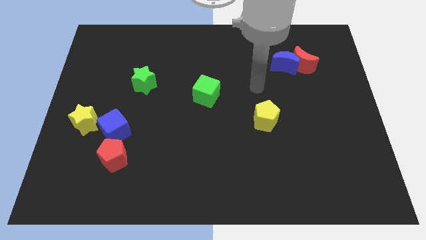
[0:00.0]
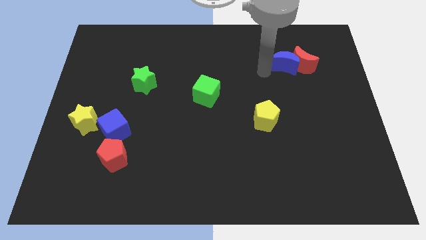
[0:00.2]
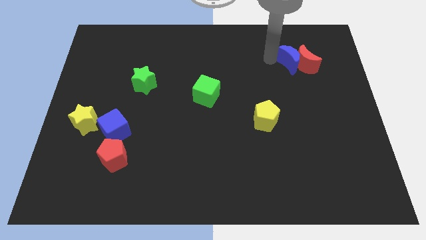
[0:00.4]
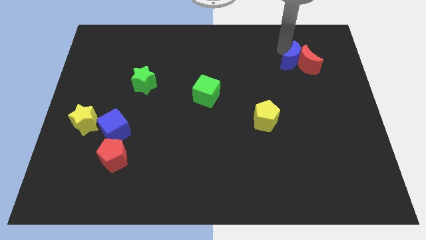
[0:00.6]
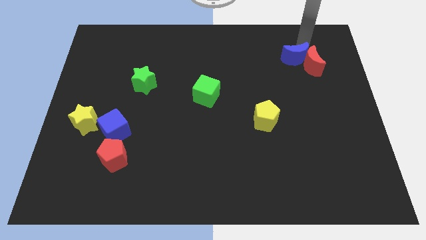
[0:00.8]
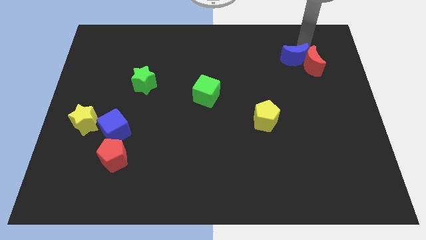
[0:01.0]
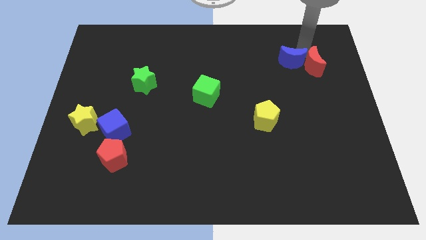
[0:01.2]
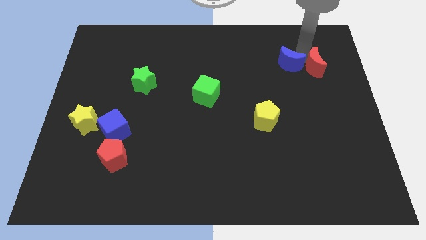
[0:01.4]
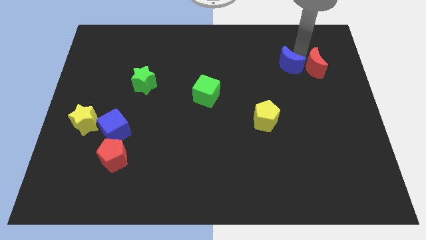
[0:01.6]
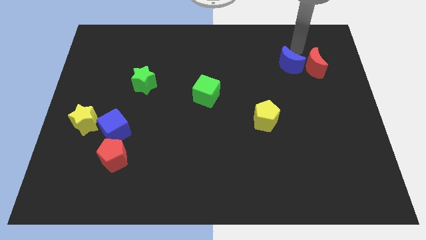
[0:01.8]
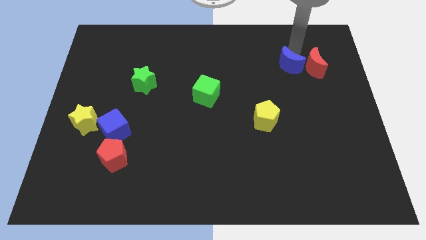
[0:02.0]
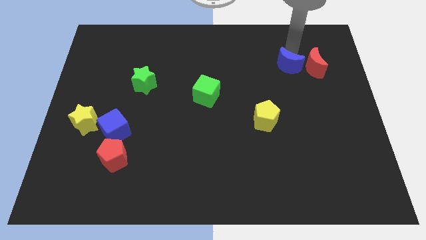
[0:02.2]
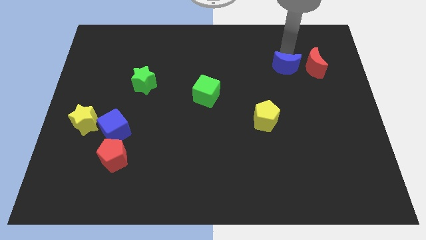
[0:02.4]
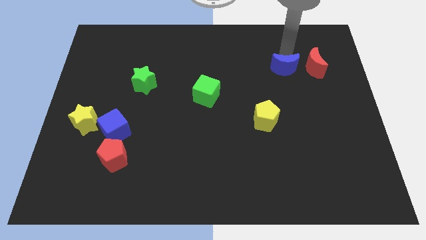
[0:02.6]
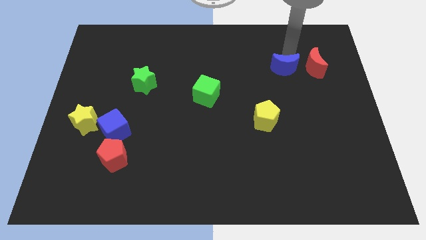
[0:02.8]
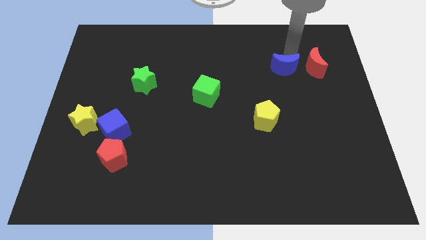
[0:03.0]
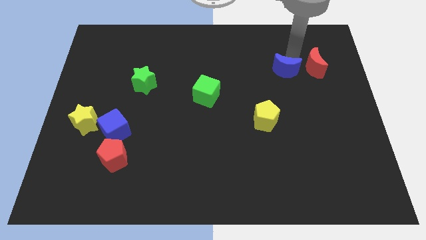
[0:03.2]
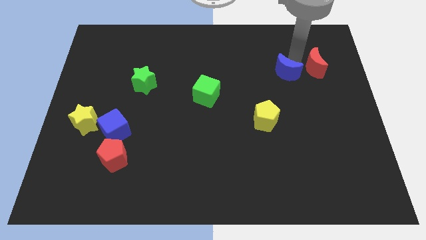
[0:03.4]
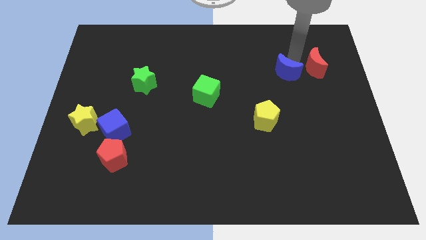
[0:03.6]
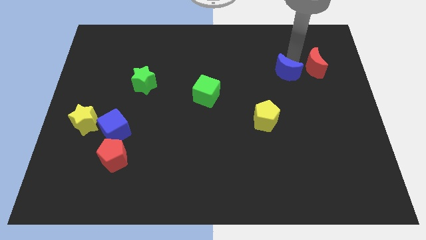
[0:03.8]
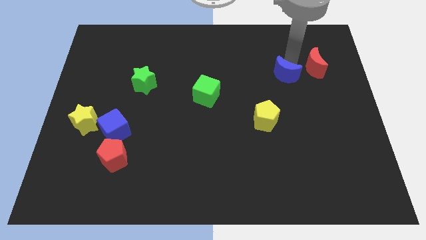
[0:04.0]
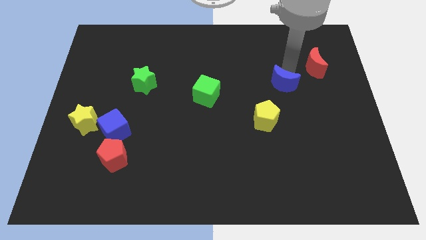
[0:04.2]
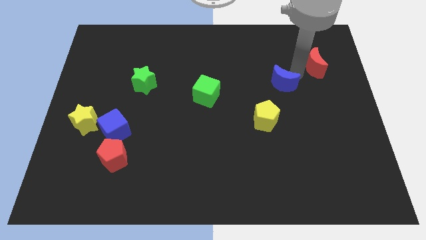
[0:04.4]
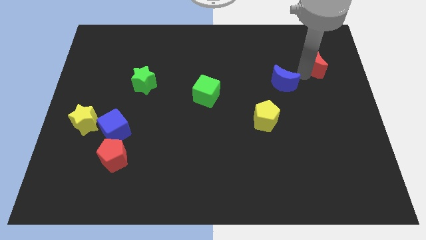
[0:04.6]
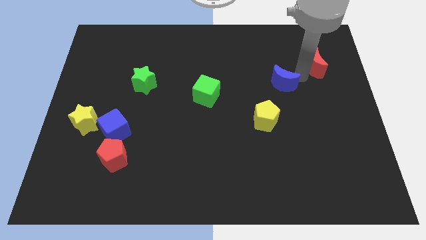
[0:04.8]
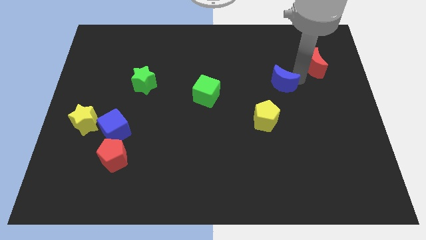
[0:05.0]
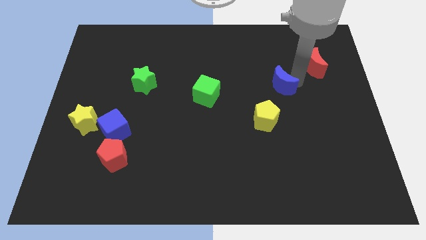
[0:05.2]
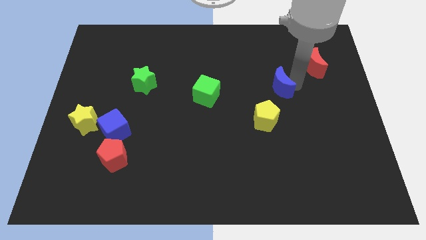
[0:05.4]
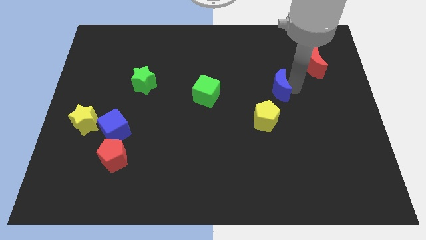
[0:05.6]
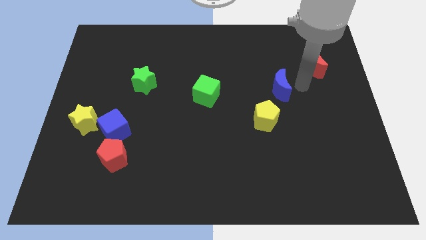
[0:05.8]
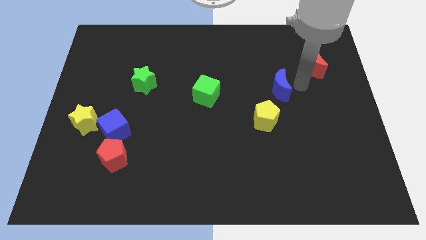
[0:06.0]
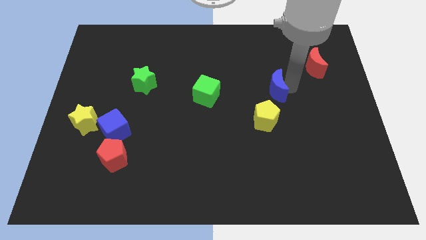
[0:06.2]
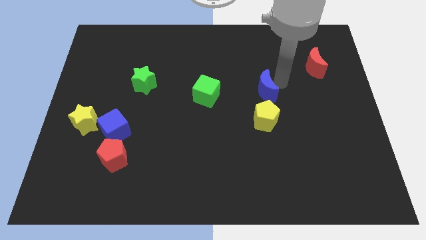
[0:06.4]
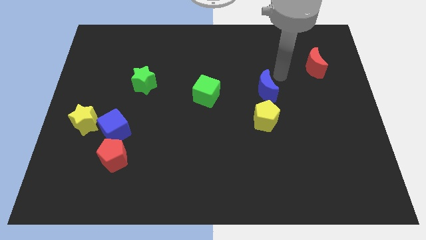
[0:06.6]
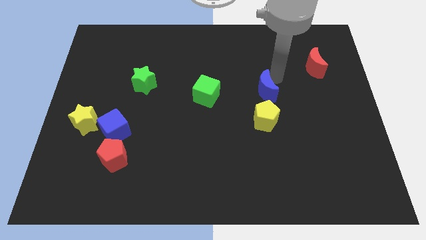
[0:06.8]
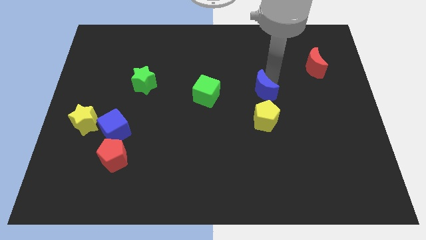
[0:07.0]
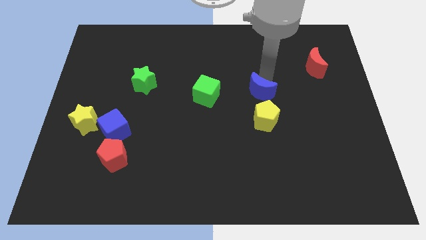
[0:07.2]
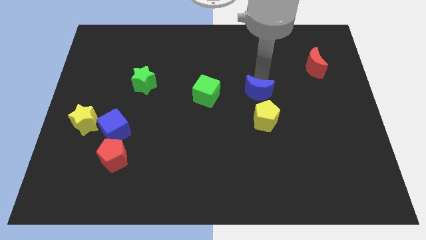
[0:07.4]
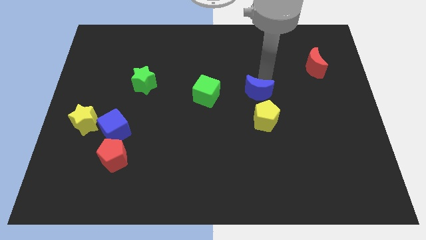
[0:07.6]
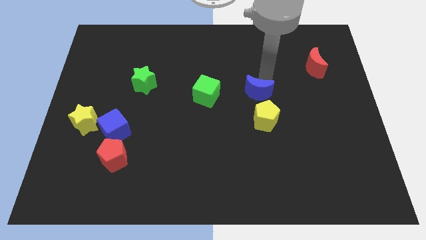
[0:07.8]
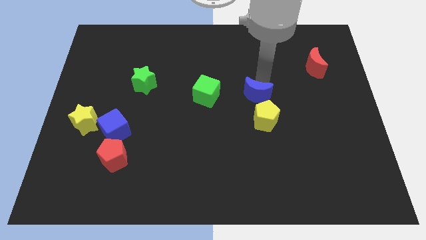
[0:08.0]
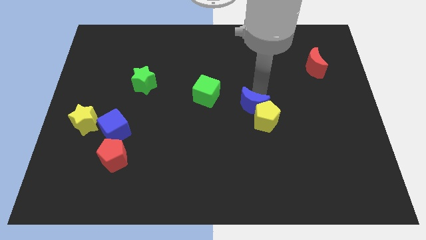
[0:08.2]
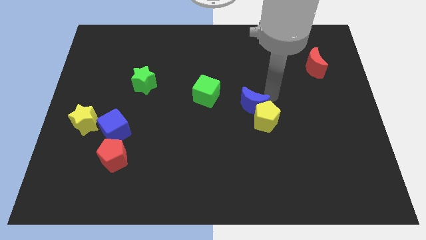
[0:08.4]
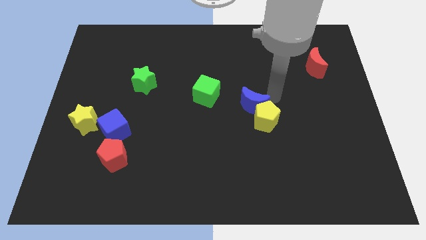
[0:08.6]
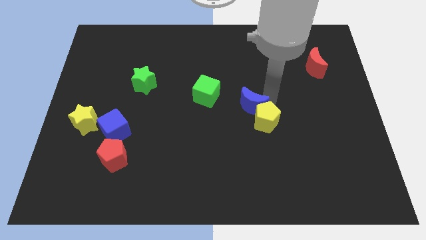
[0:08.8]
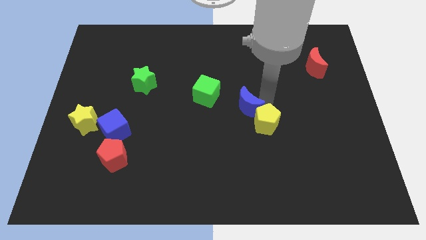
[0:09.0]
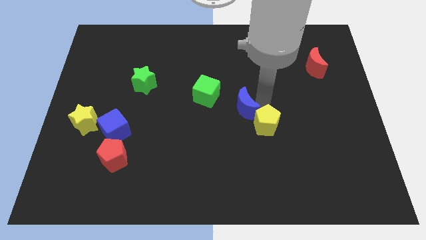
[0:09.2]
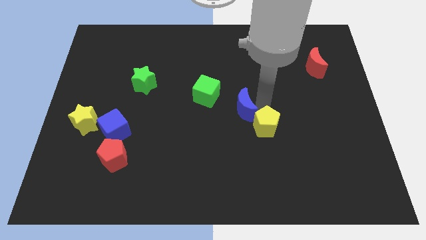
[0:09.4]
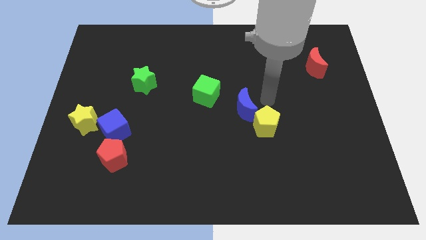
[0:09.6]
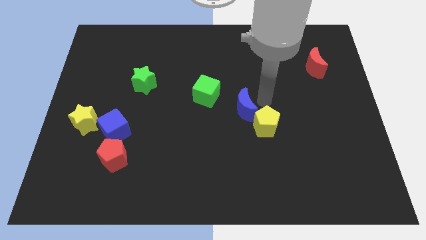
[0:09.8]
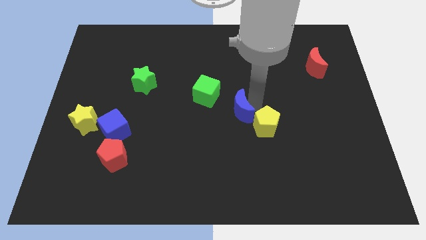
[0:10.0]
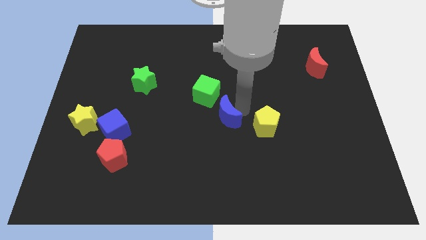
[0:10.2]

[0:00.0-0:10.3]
slide the blue moon below the green cube

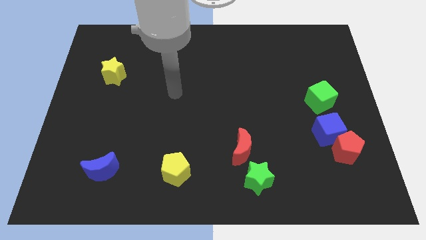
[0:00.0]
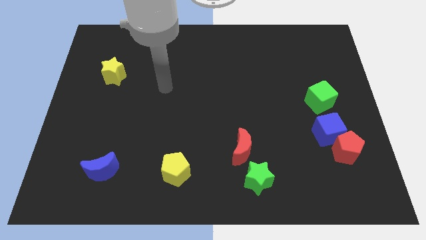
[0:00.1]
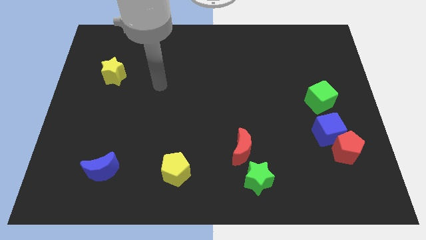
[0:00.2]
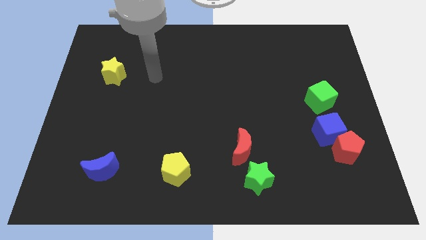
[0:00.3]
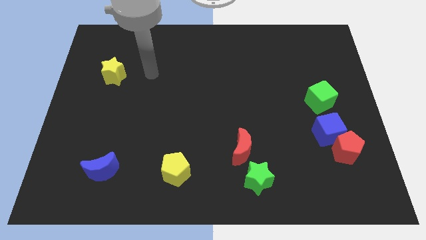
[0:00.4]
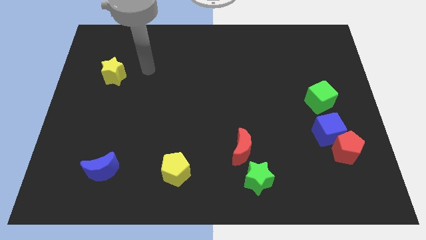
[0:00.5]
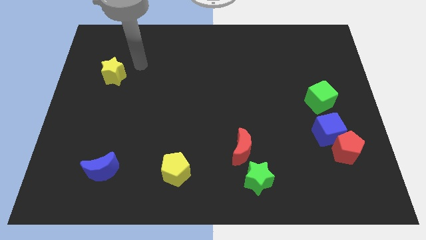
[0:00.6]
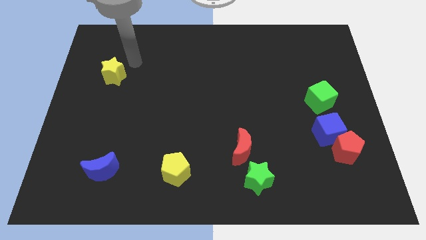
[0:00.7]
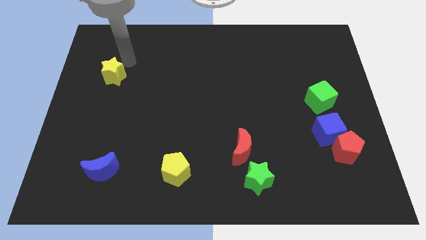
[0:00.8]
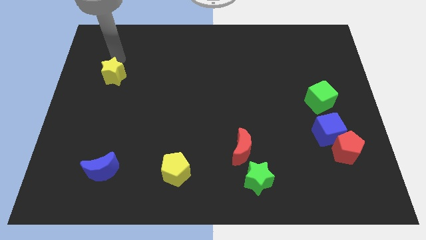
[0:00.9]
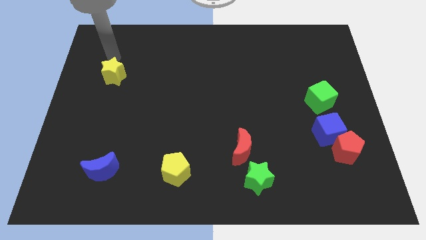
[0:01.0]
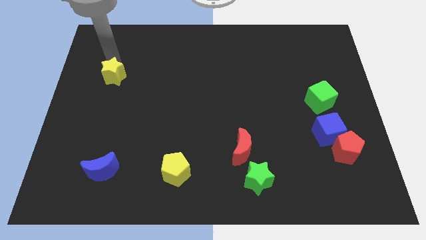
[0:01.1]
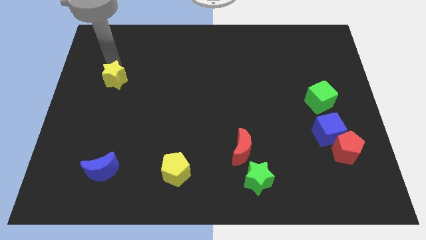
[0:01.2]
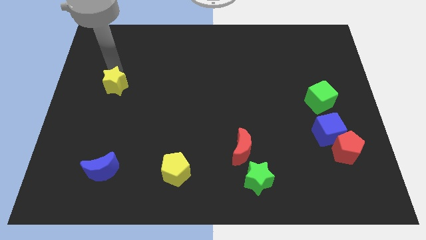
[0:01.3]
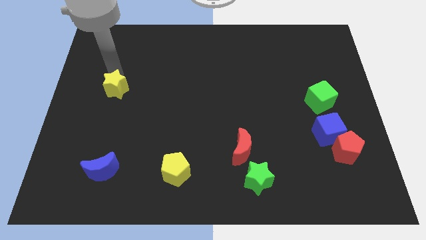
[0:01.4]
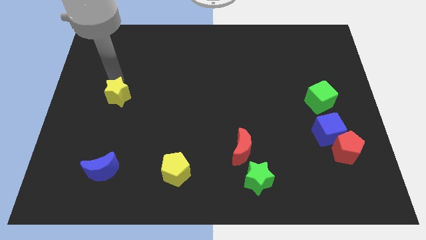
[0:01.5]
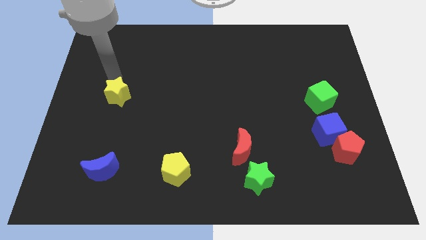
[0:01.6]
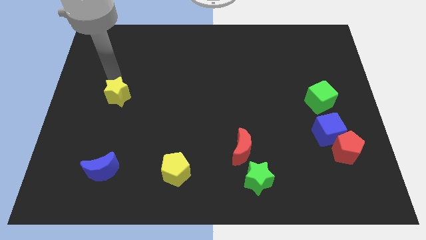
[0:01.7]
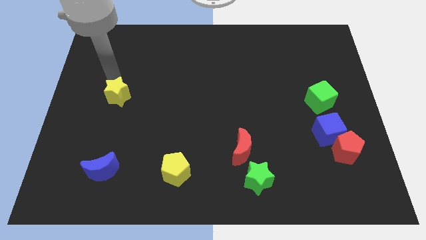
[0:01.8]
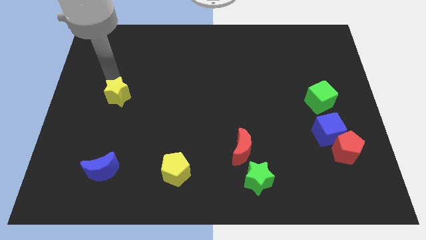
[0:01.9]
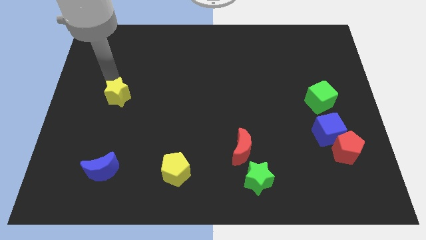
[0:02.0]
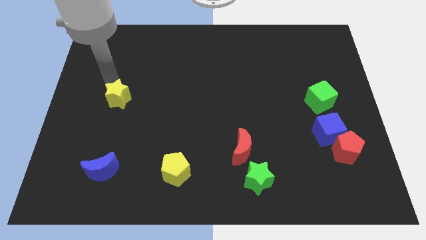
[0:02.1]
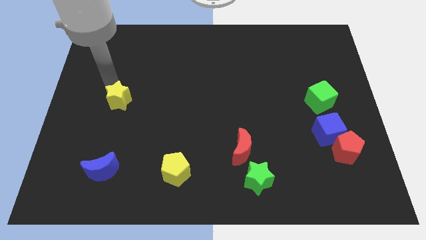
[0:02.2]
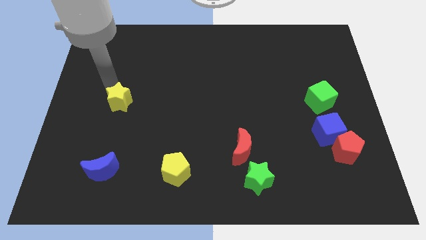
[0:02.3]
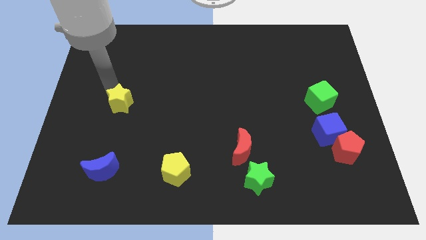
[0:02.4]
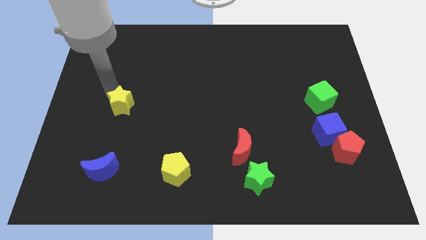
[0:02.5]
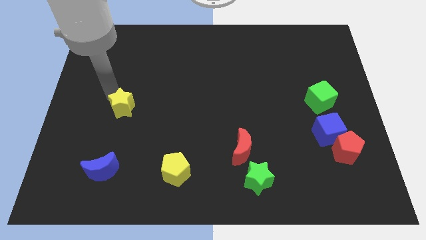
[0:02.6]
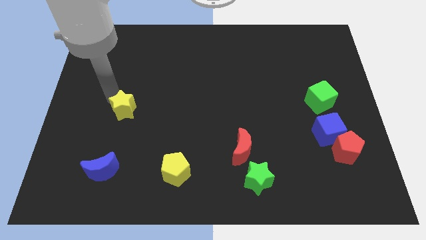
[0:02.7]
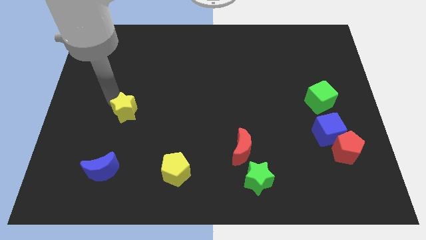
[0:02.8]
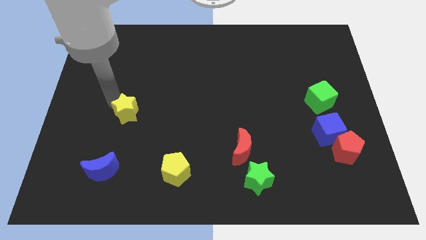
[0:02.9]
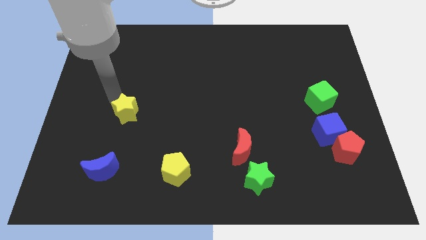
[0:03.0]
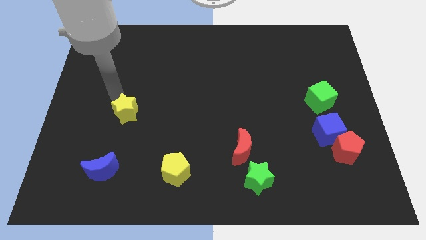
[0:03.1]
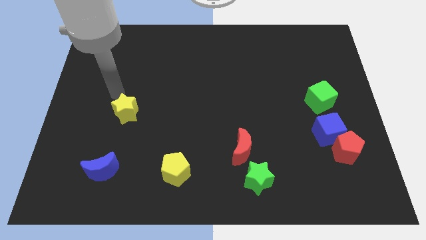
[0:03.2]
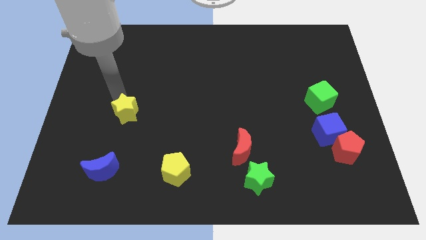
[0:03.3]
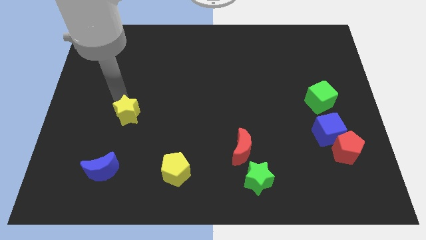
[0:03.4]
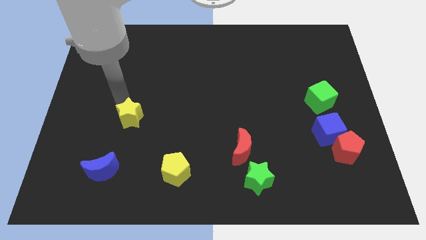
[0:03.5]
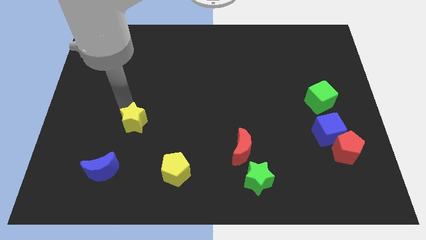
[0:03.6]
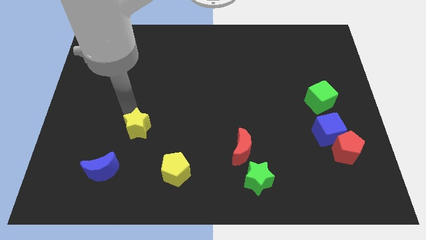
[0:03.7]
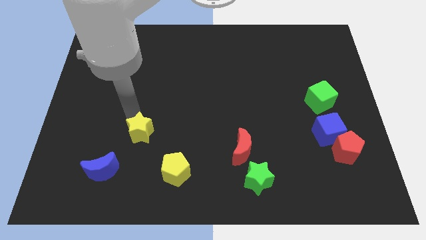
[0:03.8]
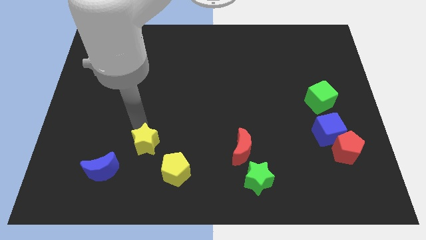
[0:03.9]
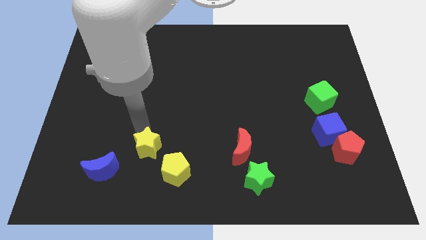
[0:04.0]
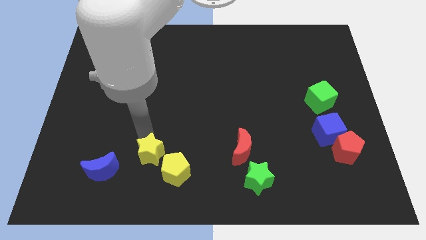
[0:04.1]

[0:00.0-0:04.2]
slide the yellow star to the right of the blue moon
